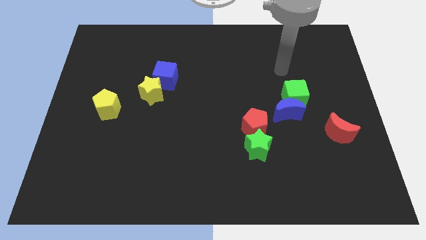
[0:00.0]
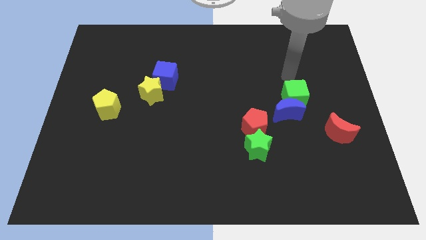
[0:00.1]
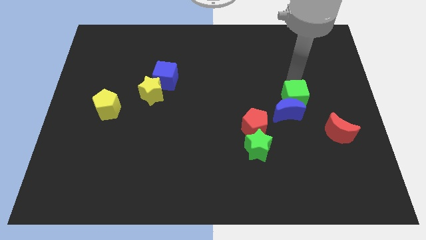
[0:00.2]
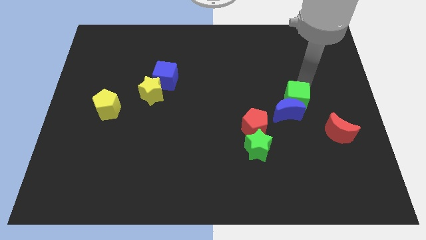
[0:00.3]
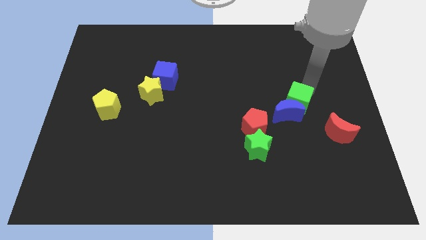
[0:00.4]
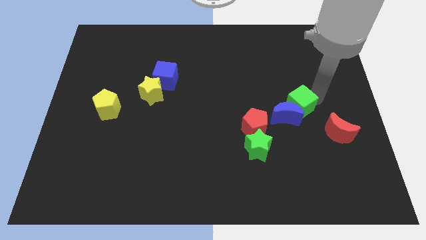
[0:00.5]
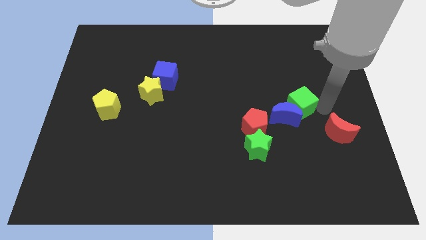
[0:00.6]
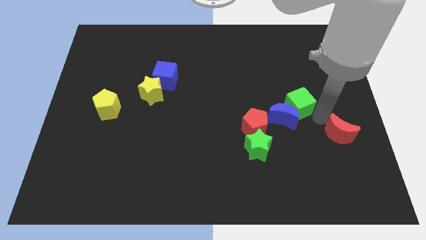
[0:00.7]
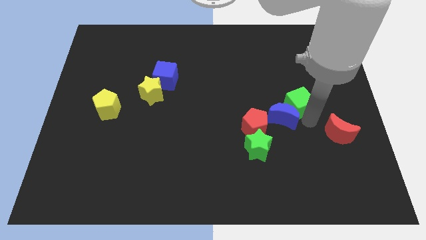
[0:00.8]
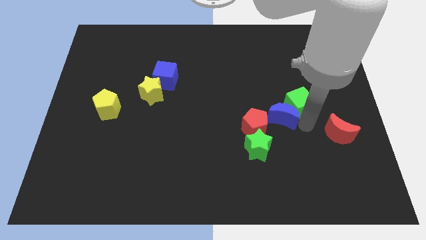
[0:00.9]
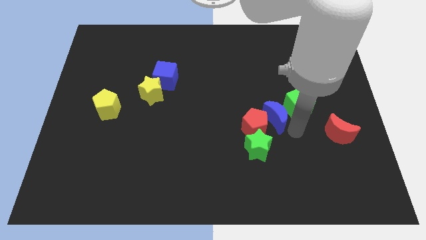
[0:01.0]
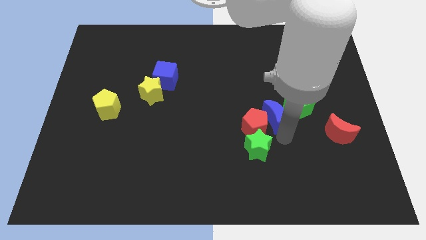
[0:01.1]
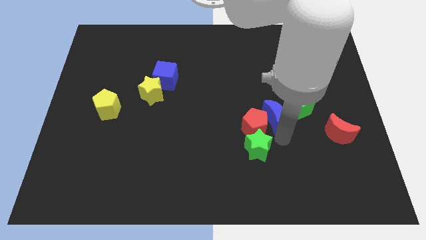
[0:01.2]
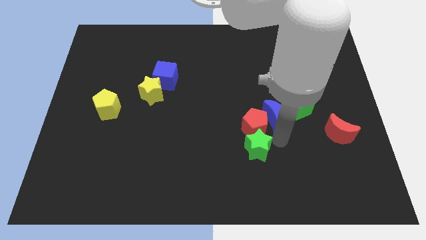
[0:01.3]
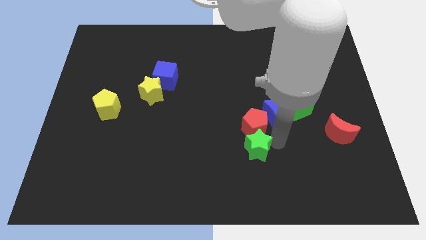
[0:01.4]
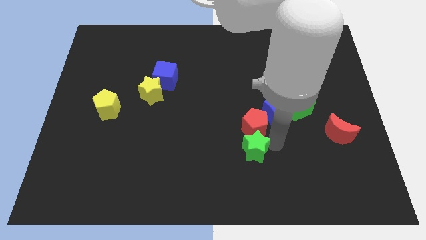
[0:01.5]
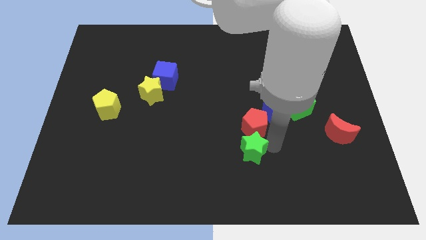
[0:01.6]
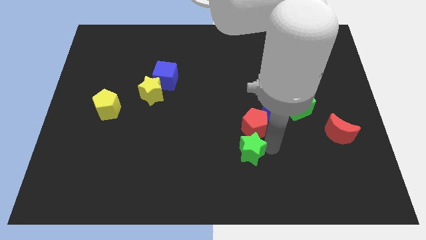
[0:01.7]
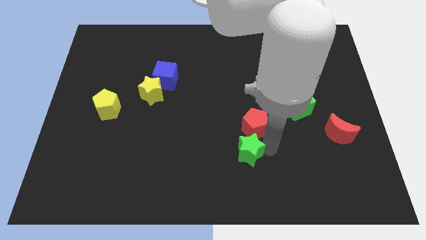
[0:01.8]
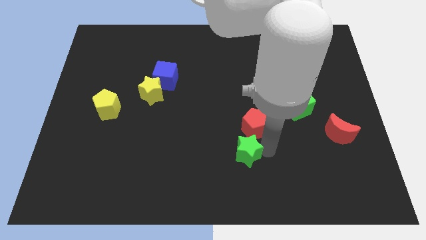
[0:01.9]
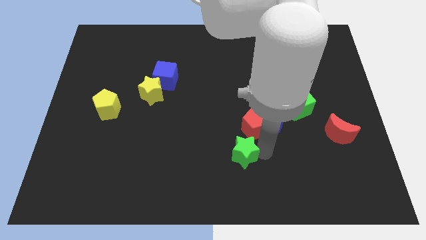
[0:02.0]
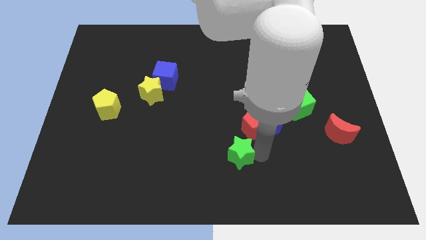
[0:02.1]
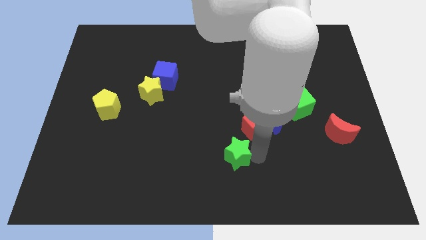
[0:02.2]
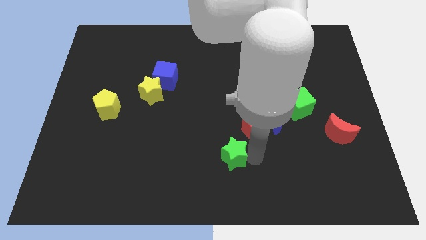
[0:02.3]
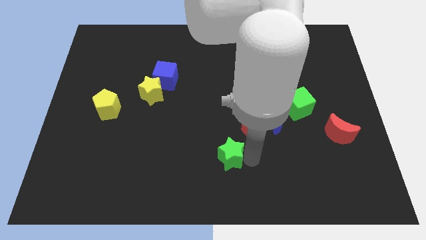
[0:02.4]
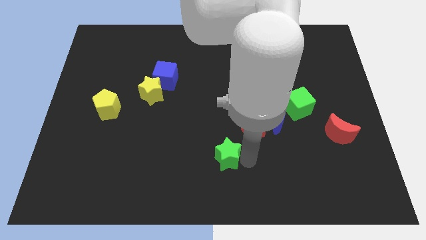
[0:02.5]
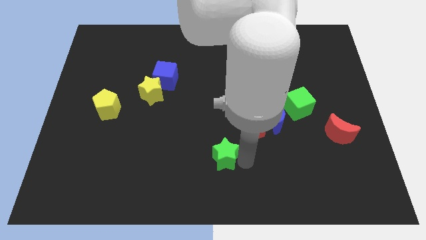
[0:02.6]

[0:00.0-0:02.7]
slightly push the green star to the left

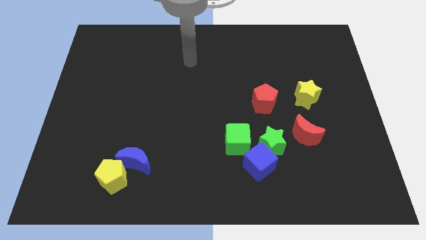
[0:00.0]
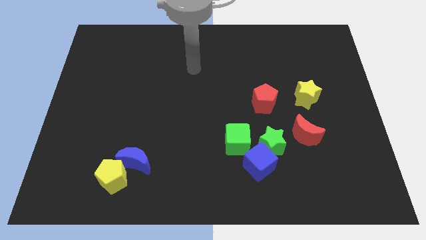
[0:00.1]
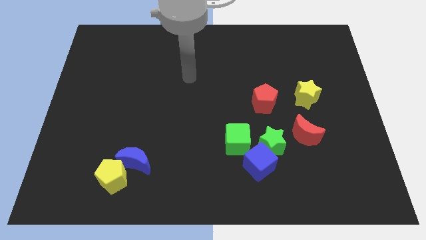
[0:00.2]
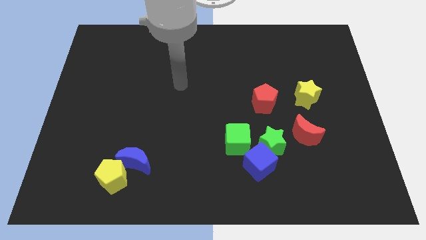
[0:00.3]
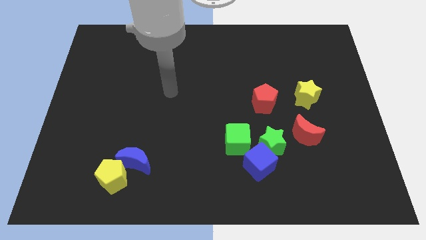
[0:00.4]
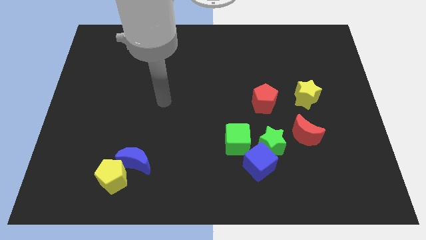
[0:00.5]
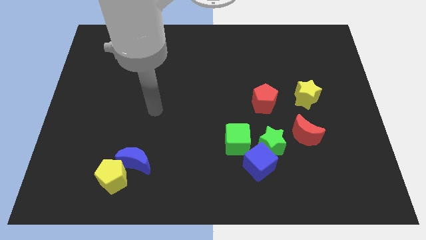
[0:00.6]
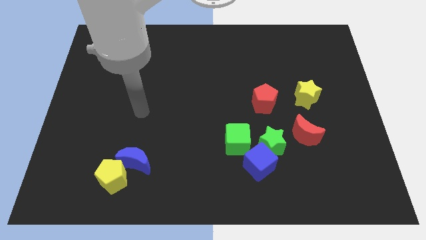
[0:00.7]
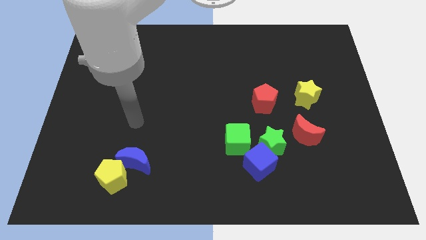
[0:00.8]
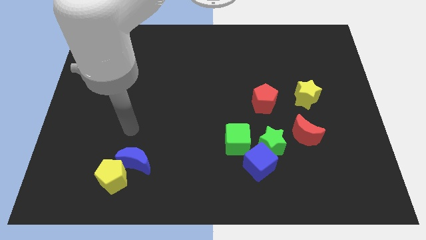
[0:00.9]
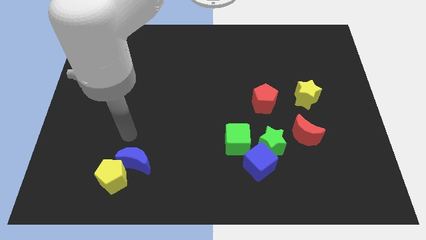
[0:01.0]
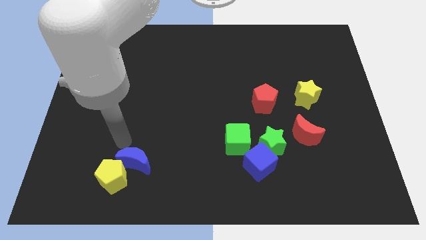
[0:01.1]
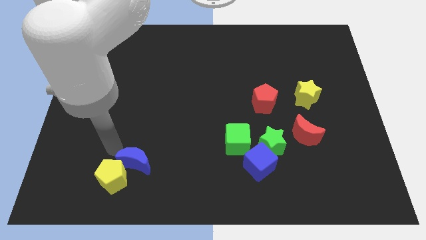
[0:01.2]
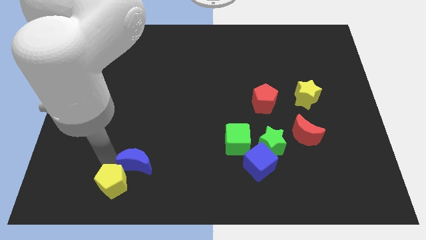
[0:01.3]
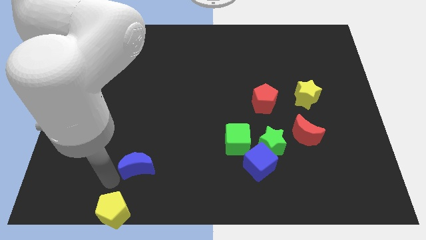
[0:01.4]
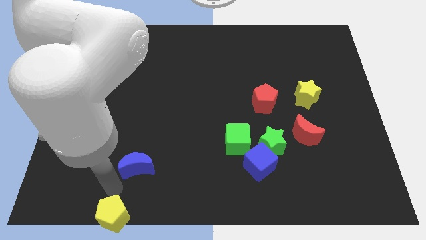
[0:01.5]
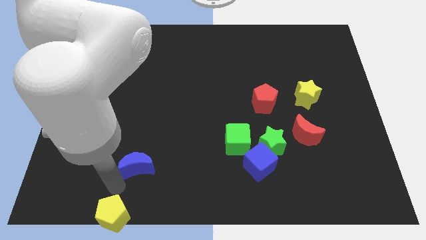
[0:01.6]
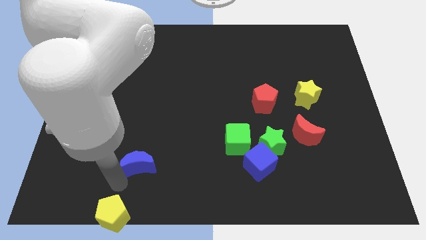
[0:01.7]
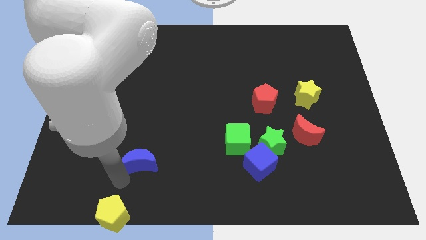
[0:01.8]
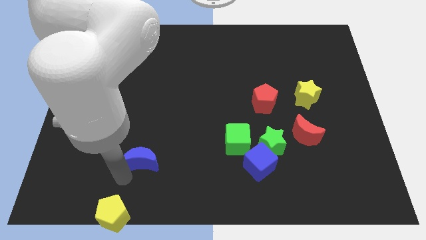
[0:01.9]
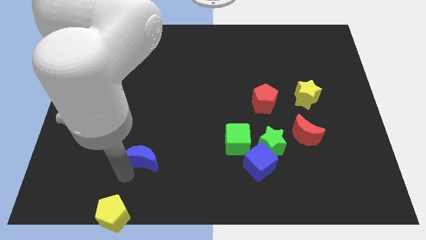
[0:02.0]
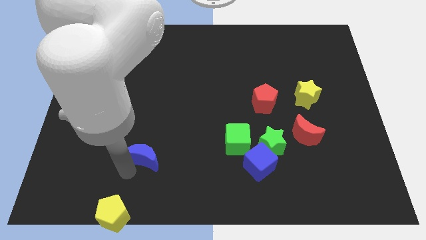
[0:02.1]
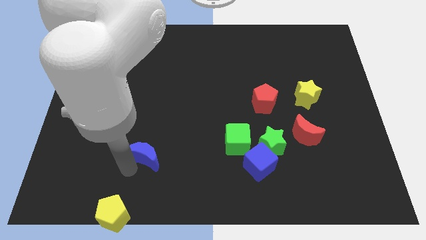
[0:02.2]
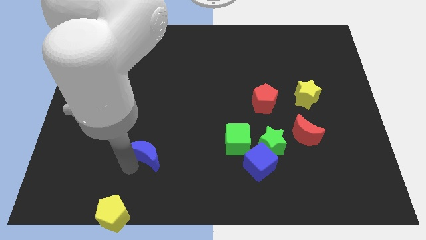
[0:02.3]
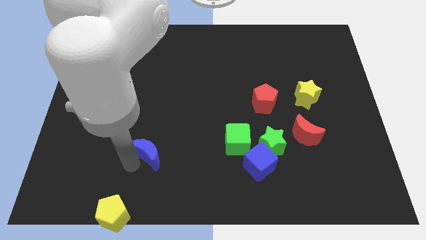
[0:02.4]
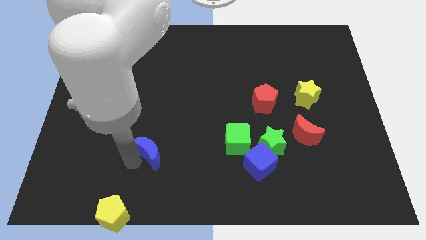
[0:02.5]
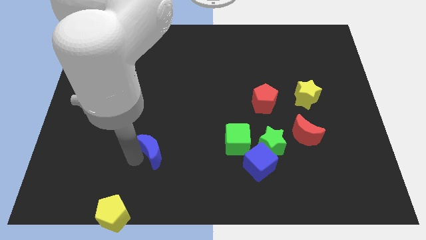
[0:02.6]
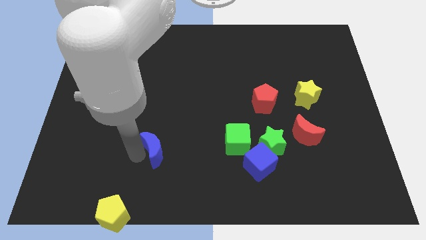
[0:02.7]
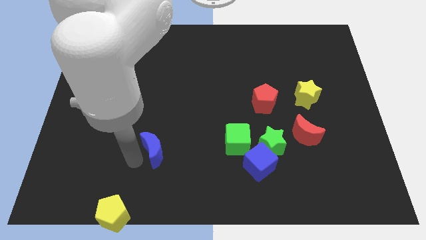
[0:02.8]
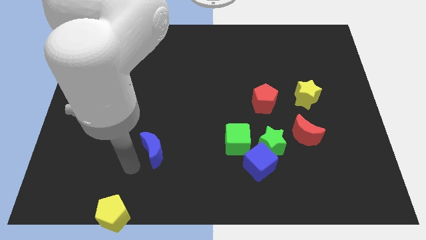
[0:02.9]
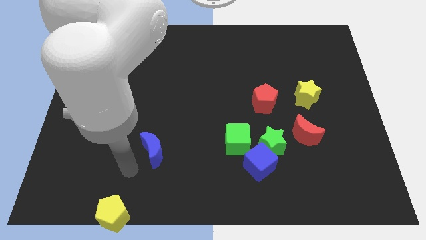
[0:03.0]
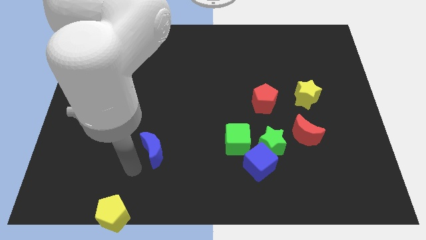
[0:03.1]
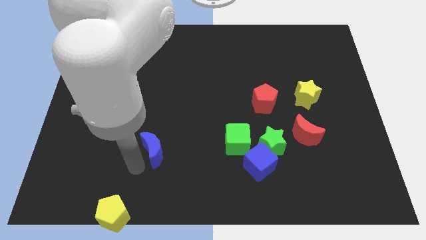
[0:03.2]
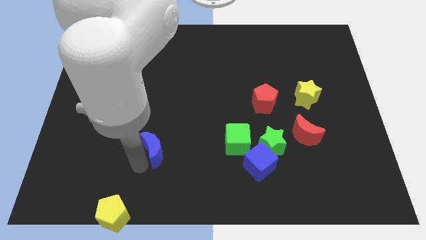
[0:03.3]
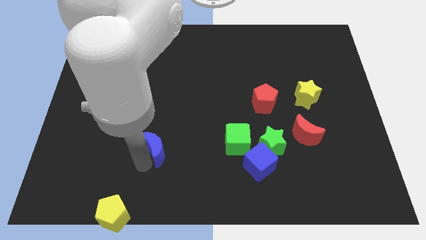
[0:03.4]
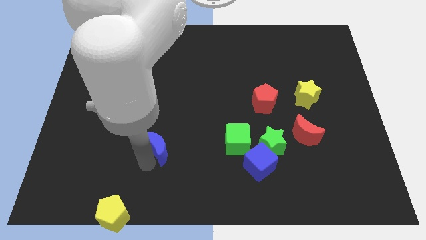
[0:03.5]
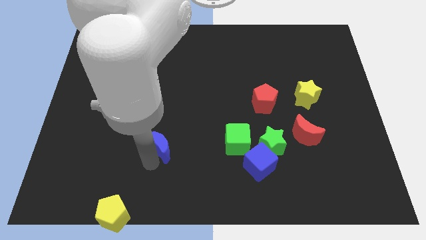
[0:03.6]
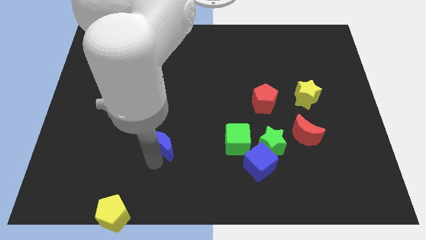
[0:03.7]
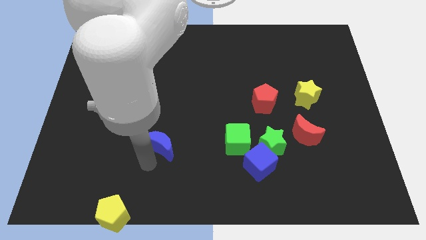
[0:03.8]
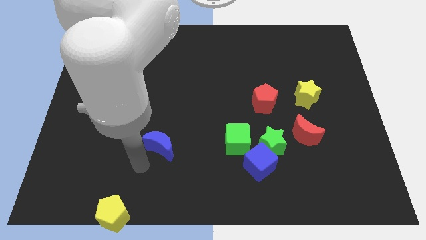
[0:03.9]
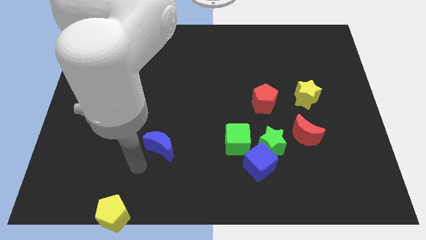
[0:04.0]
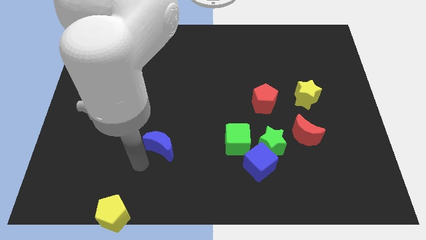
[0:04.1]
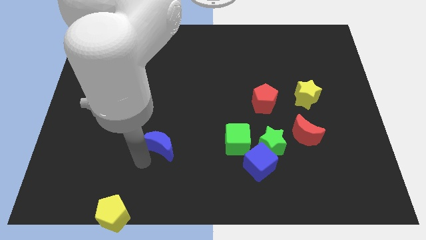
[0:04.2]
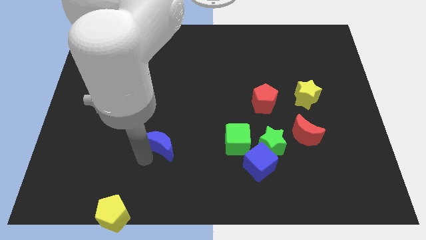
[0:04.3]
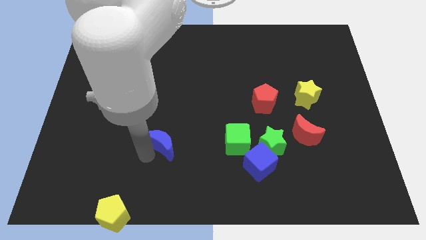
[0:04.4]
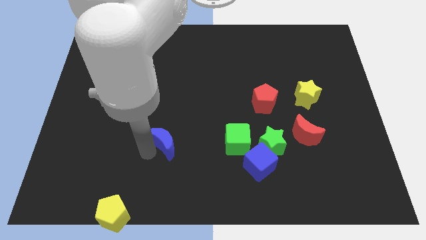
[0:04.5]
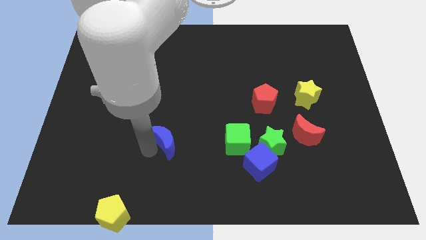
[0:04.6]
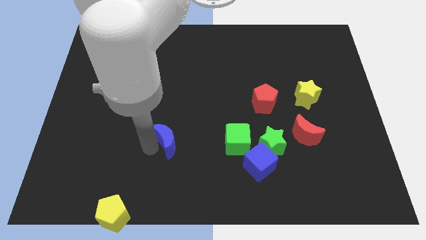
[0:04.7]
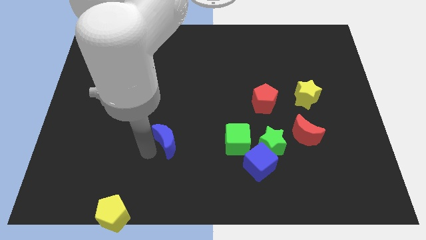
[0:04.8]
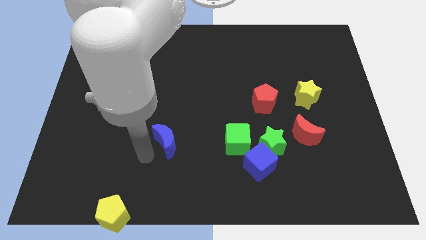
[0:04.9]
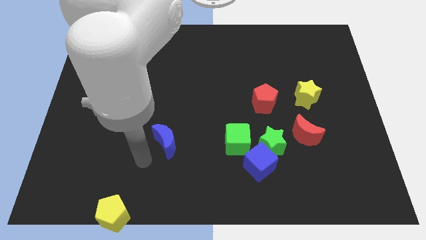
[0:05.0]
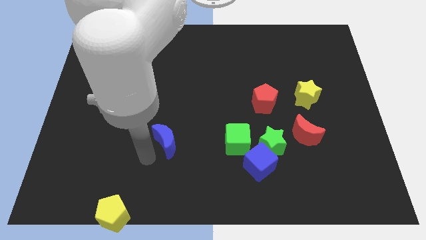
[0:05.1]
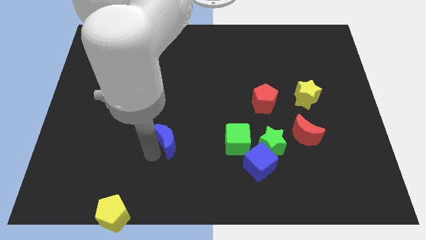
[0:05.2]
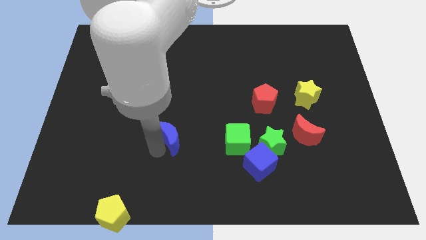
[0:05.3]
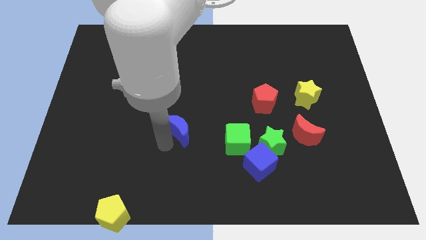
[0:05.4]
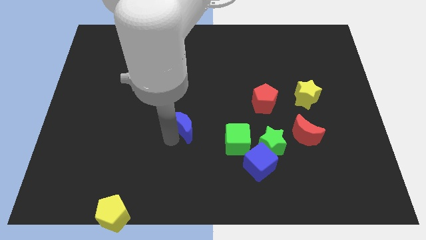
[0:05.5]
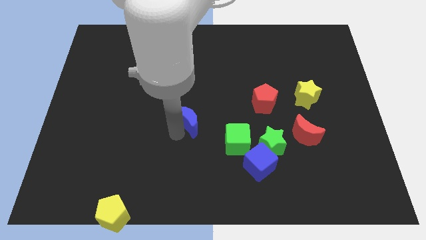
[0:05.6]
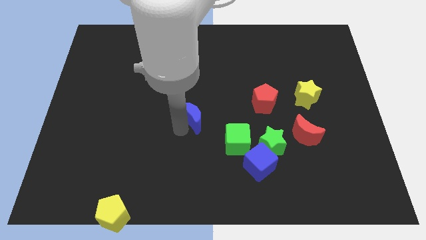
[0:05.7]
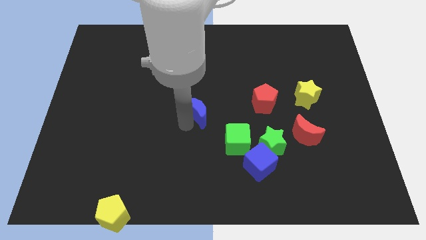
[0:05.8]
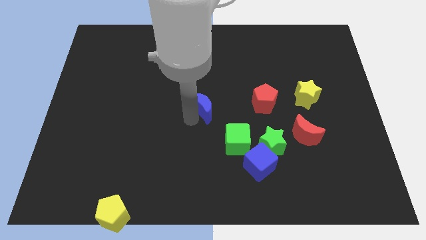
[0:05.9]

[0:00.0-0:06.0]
move the blue moon upwards and right
